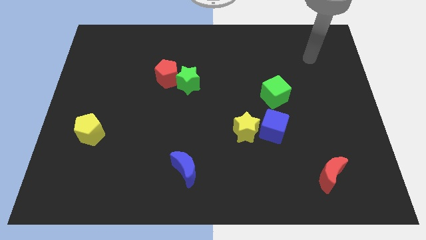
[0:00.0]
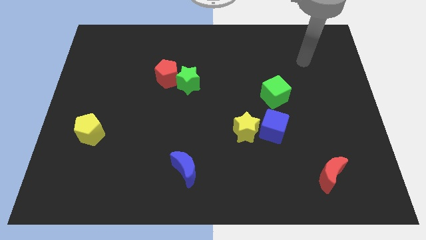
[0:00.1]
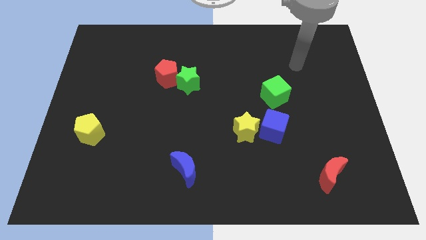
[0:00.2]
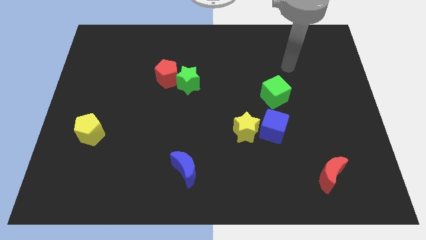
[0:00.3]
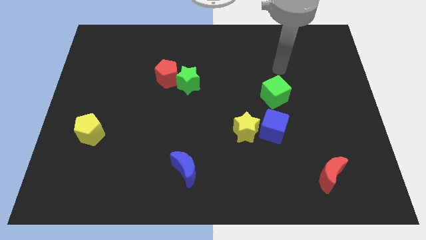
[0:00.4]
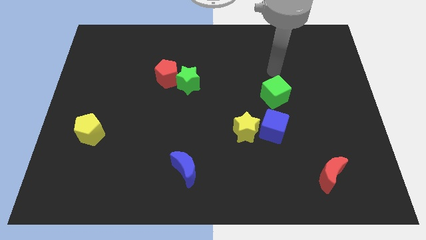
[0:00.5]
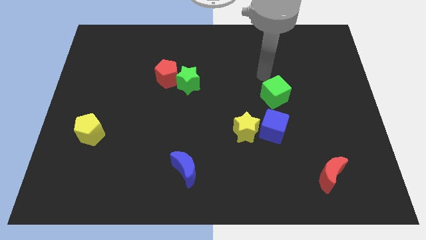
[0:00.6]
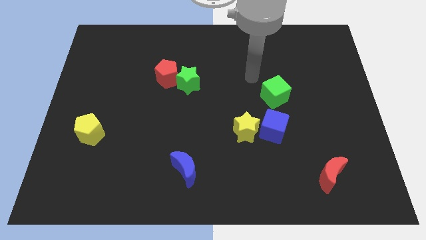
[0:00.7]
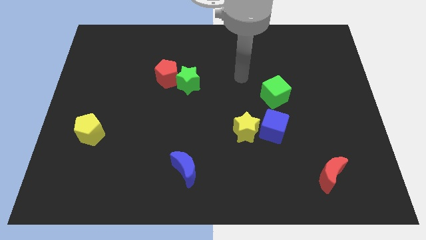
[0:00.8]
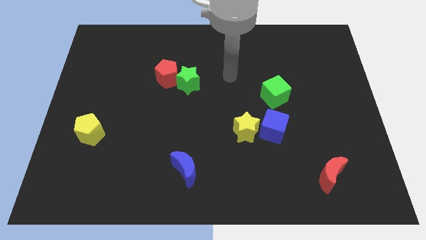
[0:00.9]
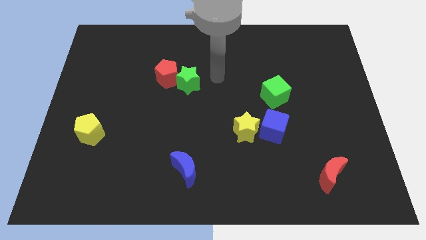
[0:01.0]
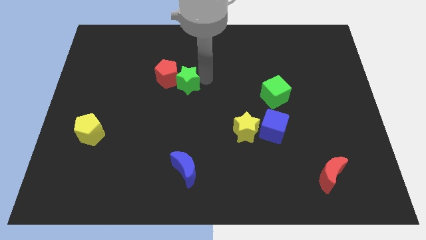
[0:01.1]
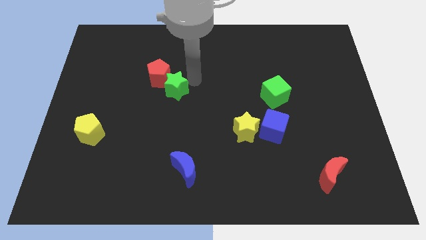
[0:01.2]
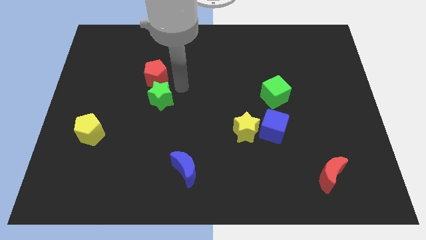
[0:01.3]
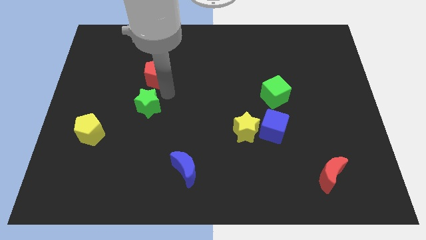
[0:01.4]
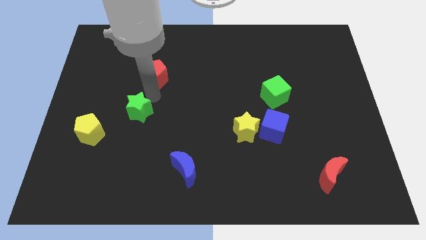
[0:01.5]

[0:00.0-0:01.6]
separate the red pentagon from the green star

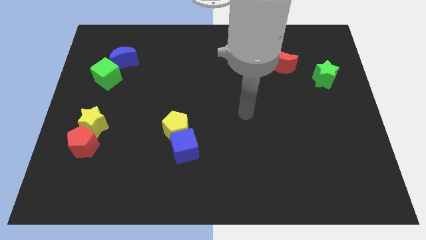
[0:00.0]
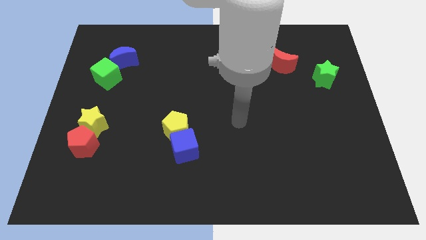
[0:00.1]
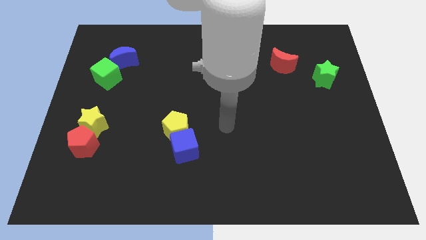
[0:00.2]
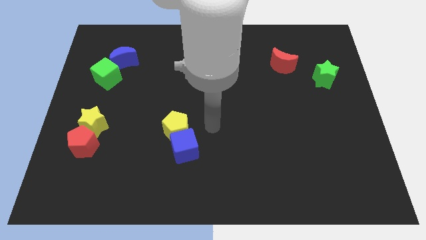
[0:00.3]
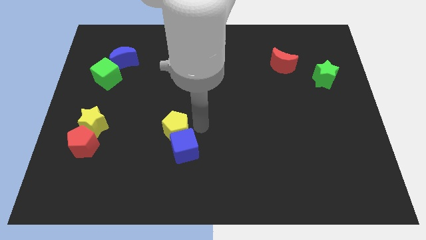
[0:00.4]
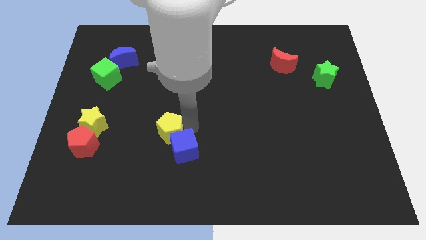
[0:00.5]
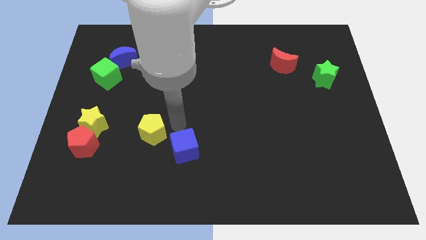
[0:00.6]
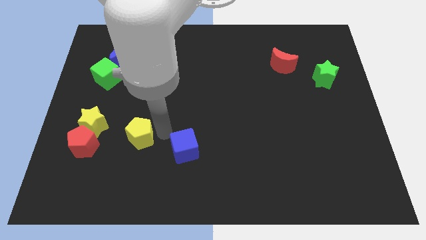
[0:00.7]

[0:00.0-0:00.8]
separate the blue cube from the yellow pentagon

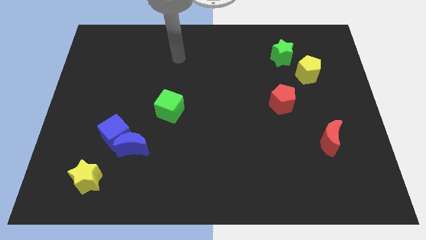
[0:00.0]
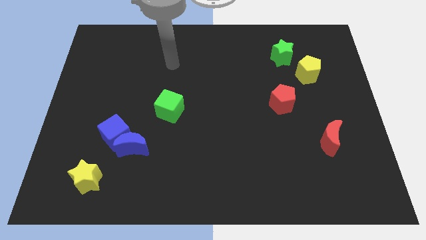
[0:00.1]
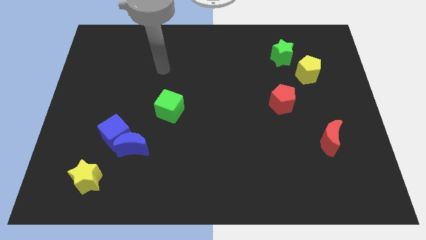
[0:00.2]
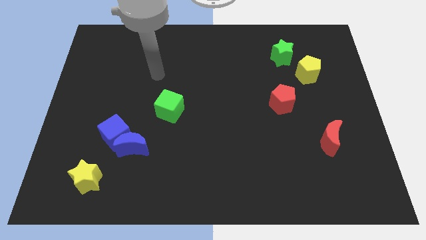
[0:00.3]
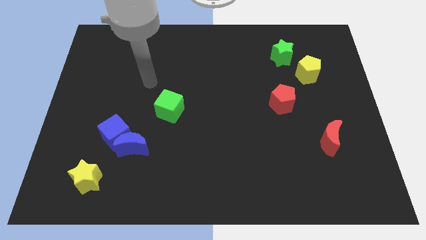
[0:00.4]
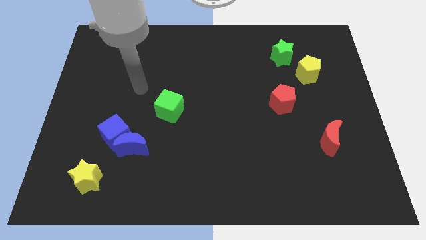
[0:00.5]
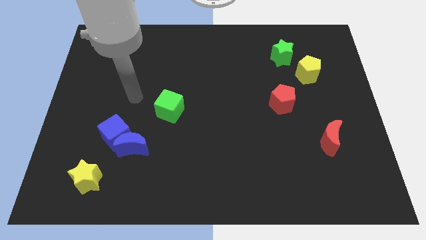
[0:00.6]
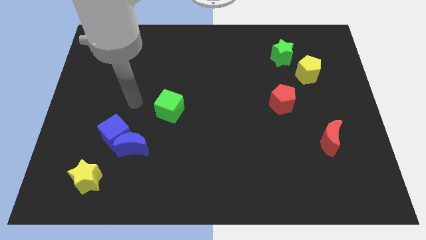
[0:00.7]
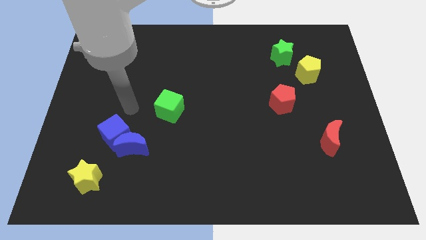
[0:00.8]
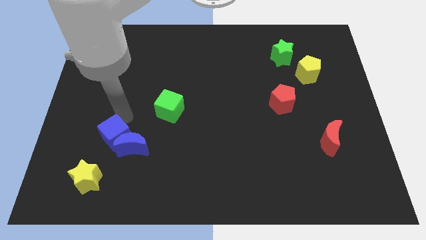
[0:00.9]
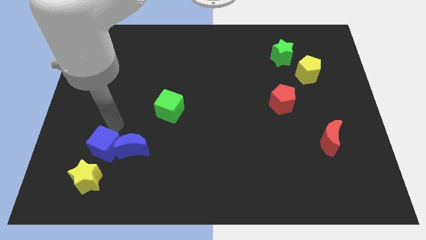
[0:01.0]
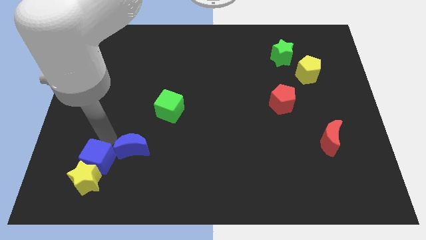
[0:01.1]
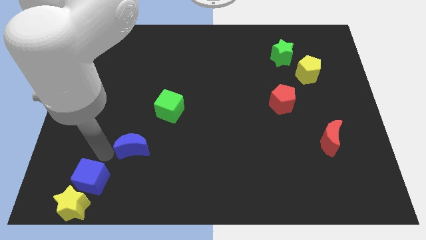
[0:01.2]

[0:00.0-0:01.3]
pull the blue moon apart from the blue cube

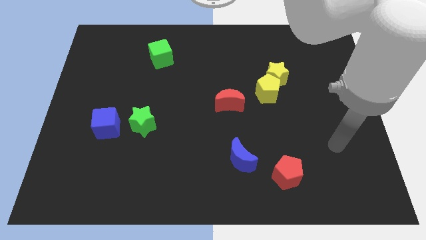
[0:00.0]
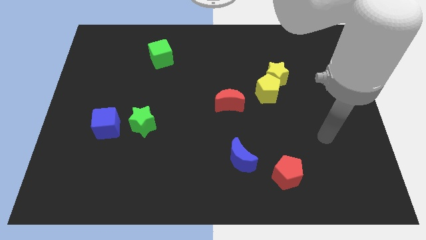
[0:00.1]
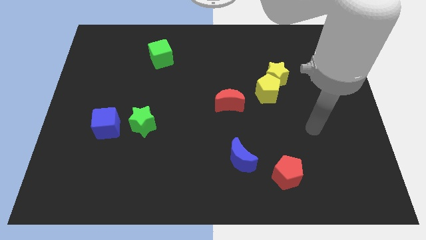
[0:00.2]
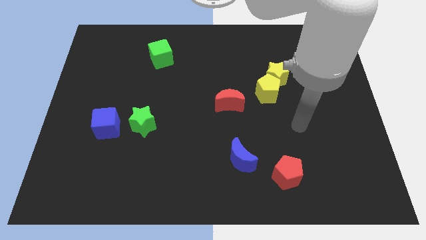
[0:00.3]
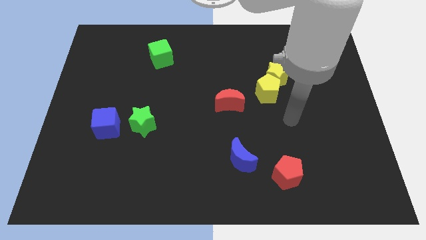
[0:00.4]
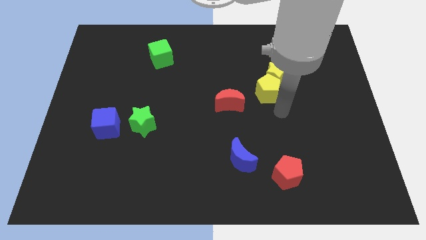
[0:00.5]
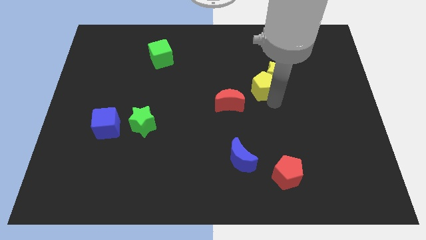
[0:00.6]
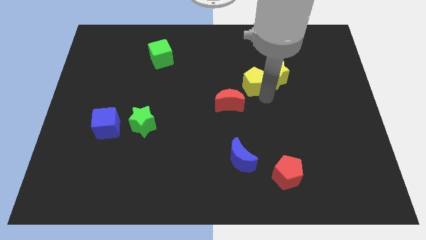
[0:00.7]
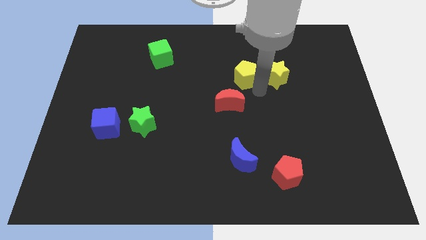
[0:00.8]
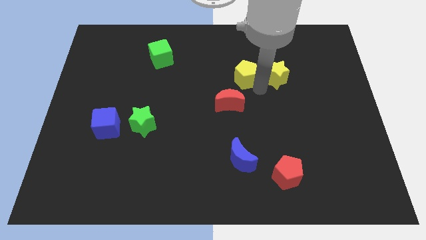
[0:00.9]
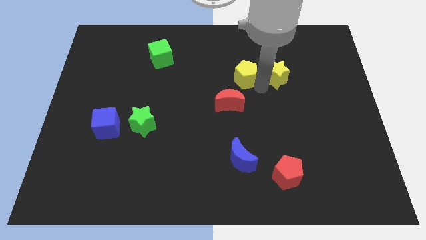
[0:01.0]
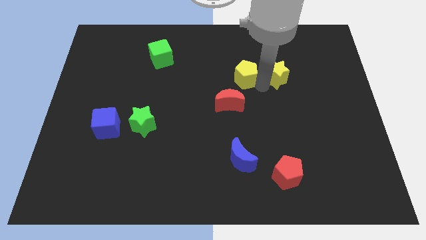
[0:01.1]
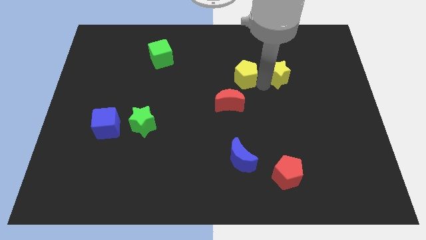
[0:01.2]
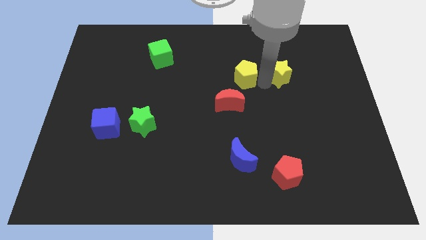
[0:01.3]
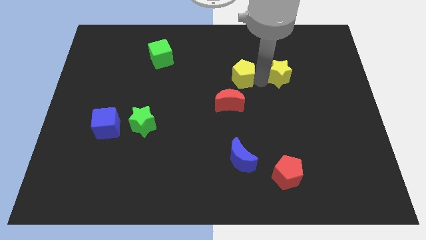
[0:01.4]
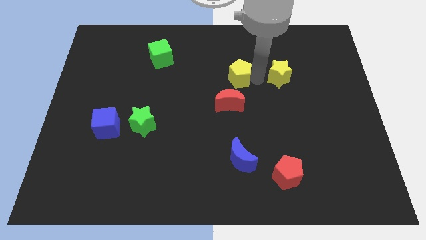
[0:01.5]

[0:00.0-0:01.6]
pull the yellow star apart from the yellow pentagon

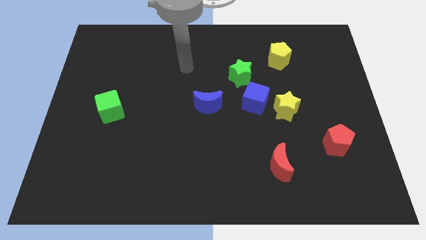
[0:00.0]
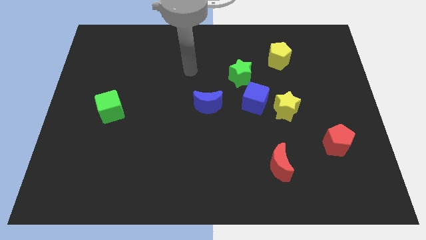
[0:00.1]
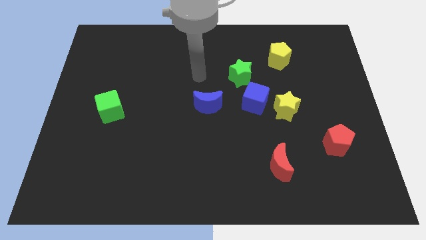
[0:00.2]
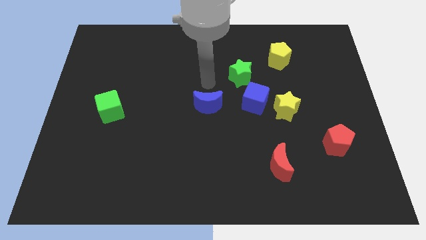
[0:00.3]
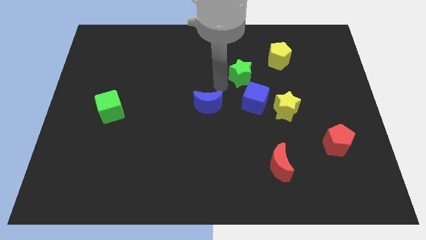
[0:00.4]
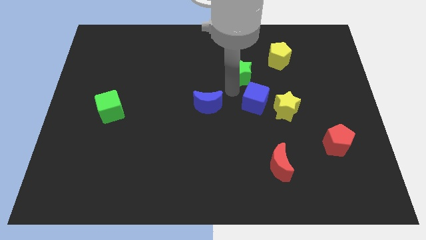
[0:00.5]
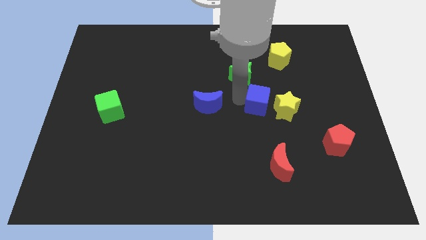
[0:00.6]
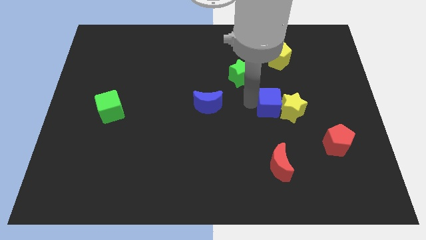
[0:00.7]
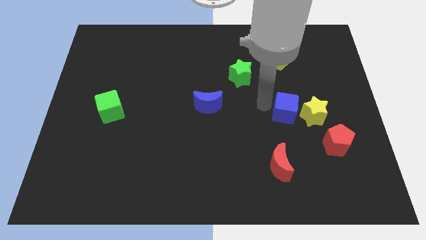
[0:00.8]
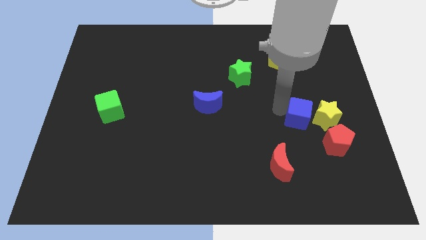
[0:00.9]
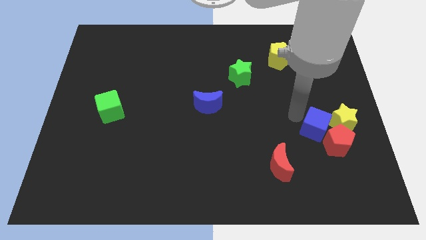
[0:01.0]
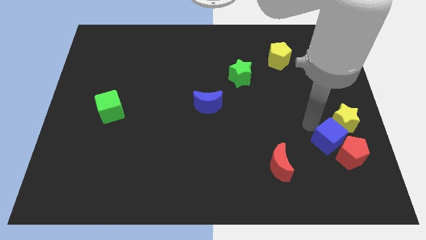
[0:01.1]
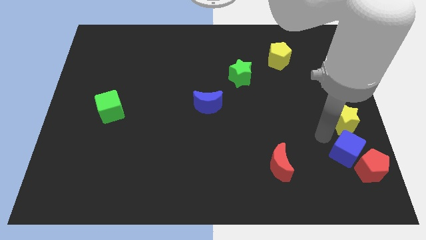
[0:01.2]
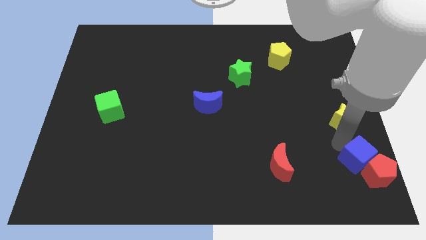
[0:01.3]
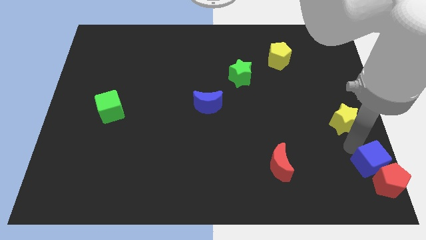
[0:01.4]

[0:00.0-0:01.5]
move the yellow star away from the blue cube

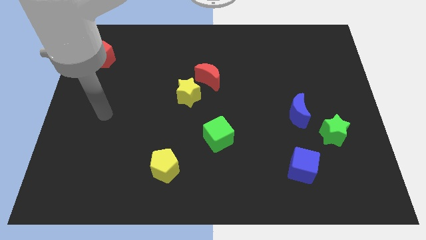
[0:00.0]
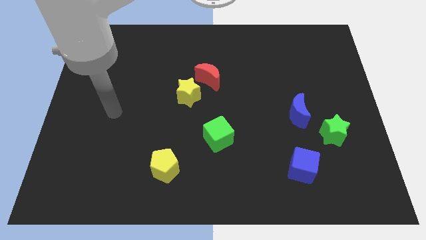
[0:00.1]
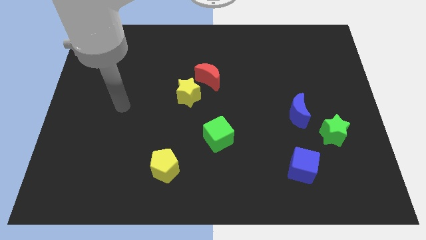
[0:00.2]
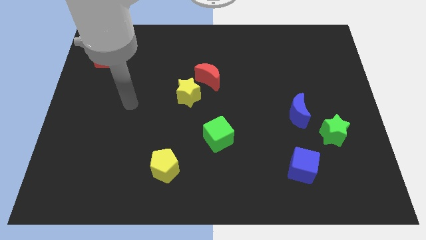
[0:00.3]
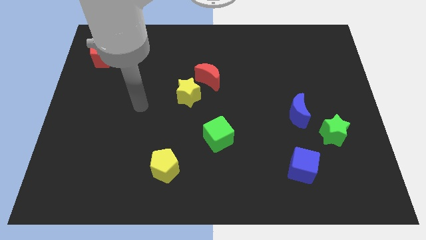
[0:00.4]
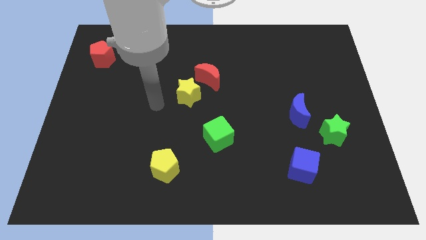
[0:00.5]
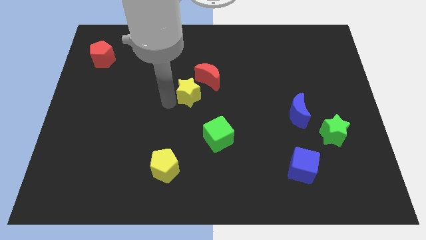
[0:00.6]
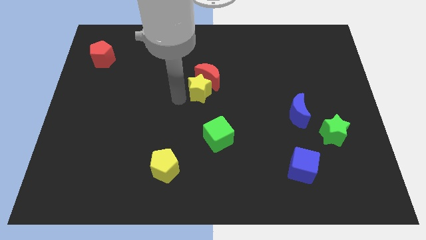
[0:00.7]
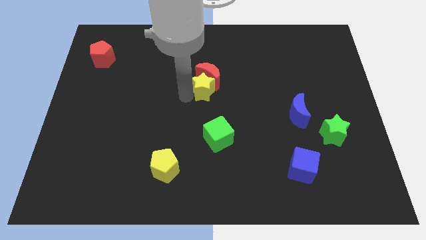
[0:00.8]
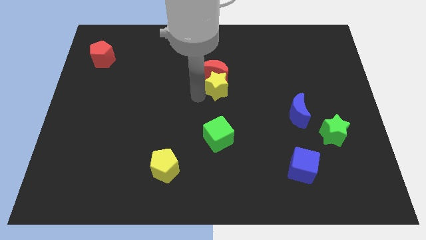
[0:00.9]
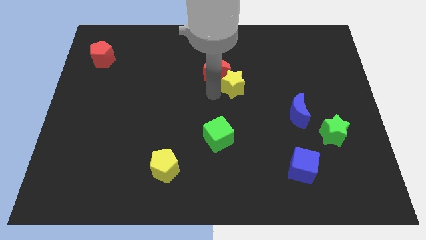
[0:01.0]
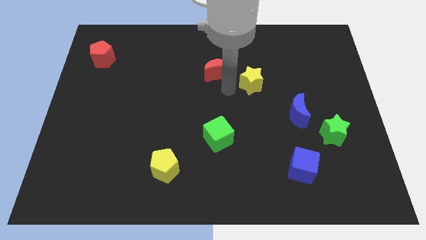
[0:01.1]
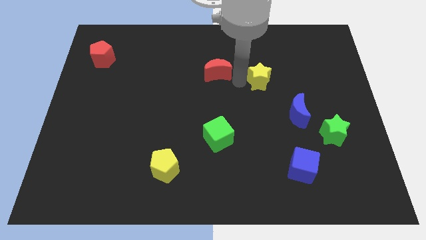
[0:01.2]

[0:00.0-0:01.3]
move the red moon away from the yellow star

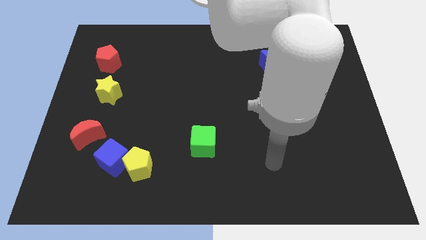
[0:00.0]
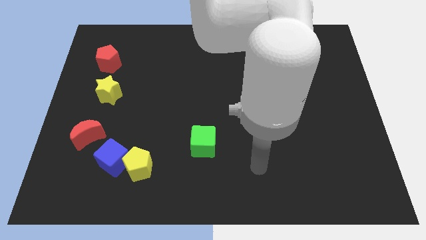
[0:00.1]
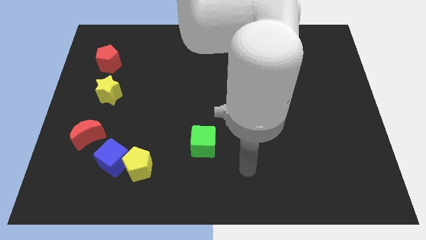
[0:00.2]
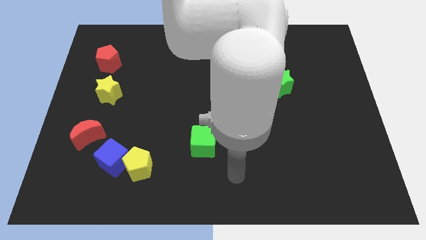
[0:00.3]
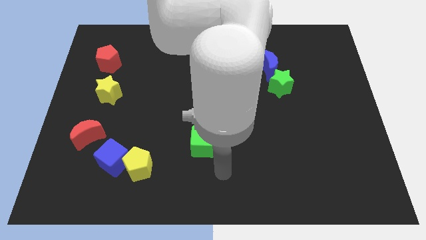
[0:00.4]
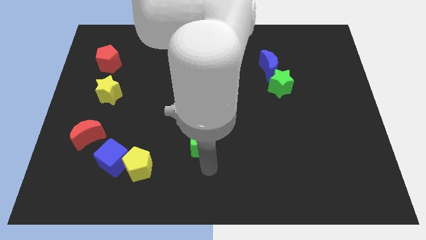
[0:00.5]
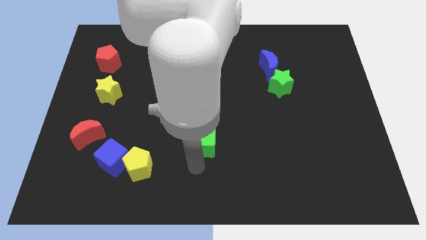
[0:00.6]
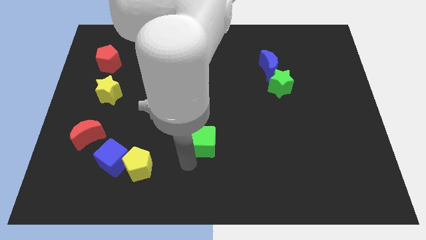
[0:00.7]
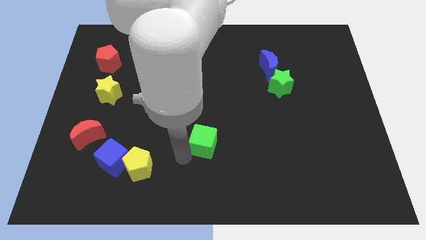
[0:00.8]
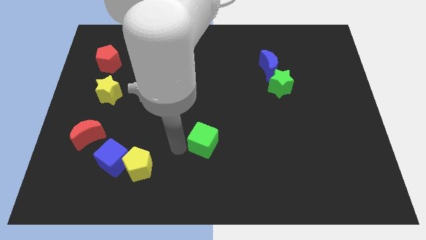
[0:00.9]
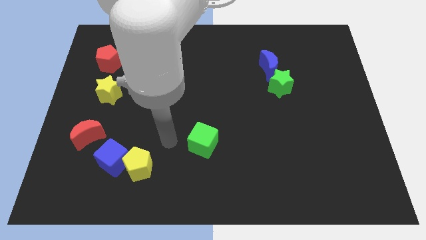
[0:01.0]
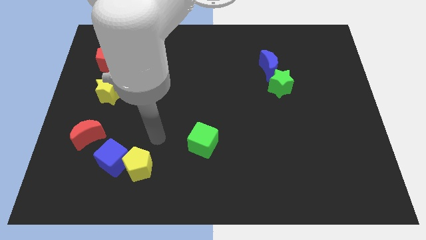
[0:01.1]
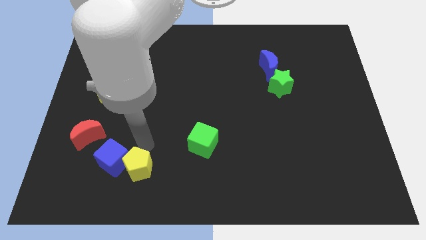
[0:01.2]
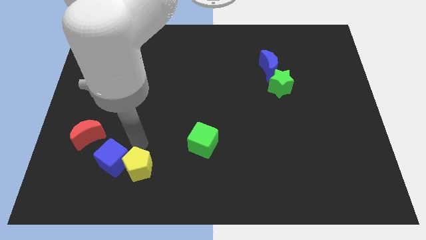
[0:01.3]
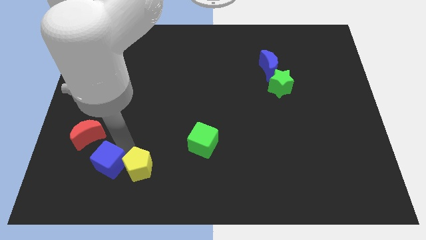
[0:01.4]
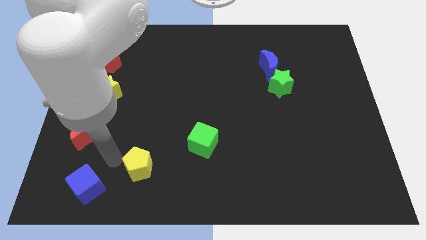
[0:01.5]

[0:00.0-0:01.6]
pull the yellow pentagon apart from the blue cube
